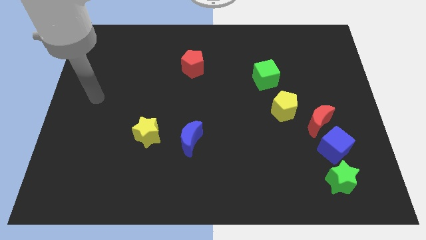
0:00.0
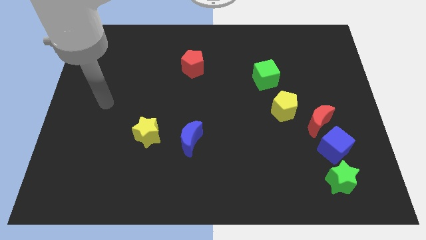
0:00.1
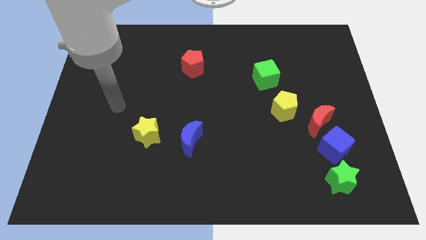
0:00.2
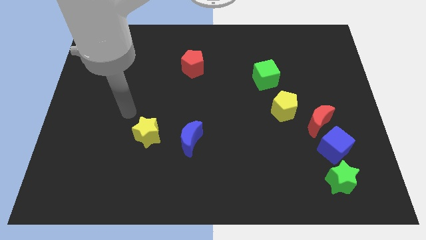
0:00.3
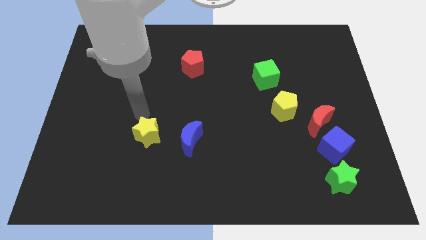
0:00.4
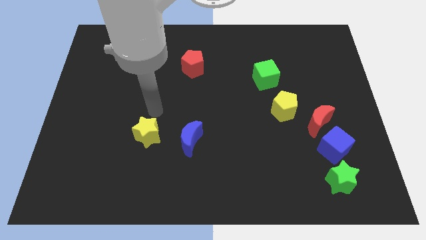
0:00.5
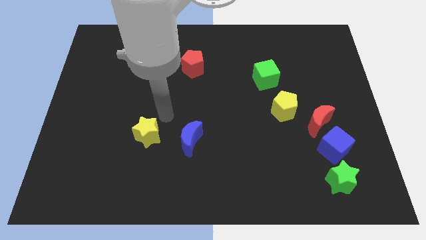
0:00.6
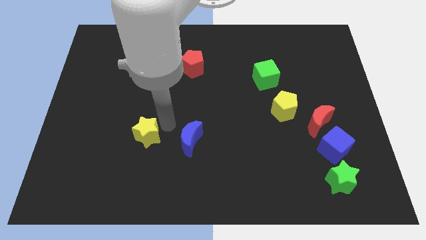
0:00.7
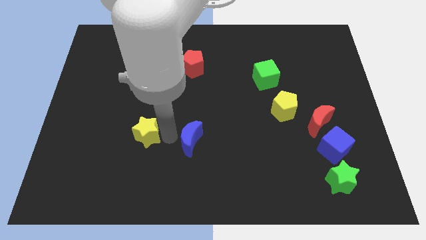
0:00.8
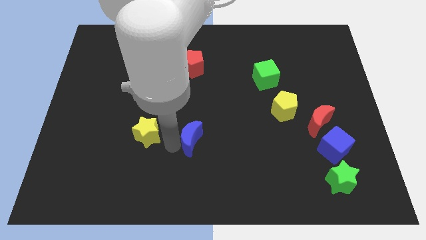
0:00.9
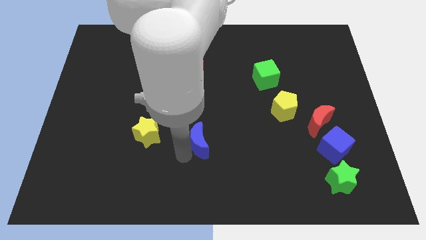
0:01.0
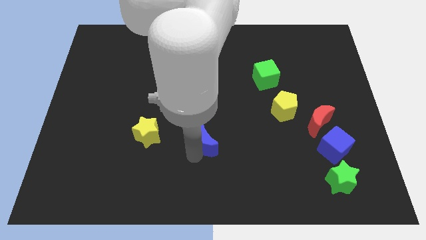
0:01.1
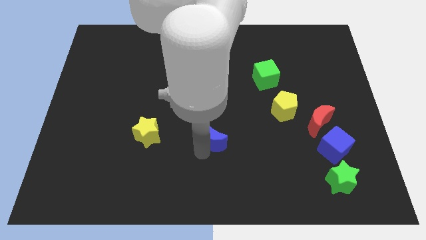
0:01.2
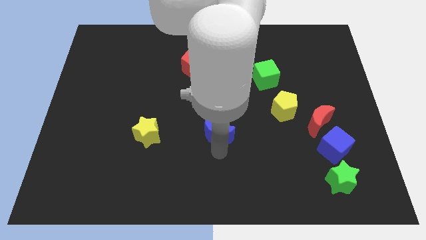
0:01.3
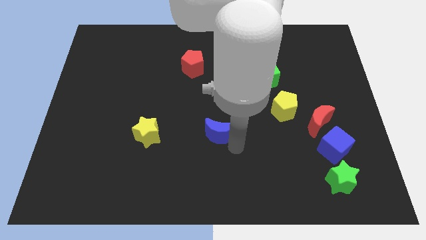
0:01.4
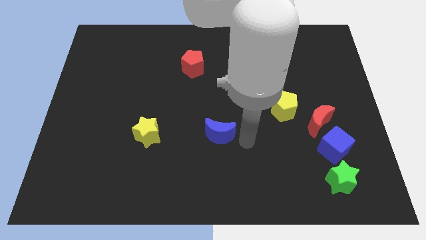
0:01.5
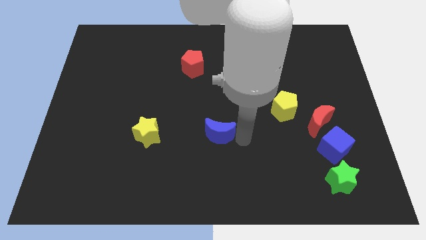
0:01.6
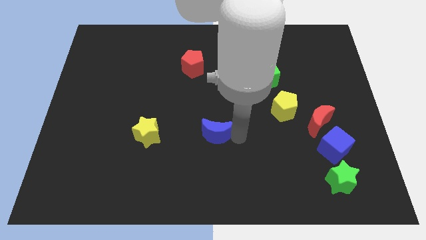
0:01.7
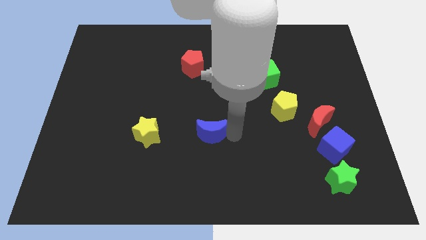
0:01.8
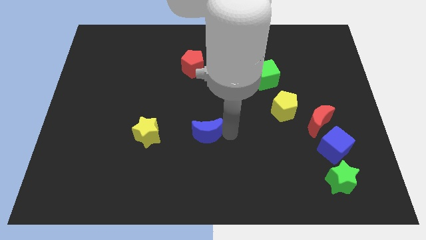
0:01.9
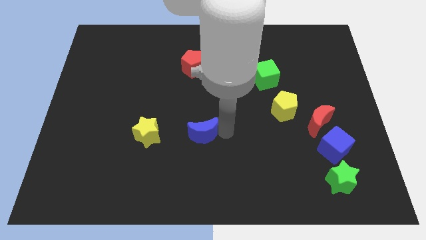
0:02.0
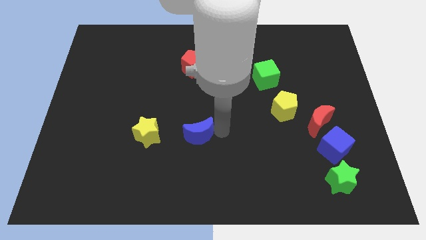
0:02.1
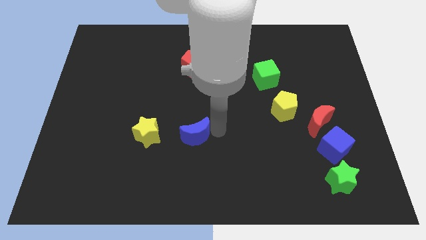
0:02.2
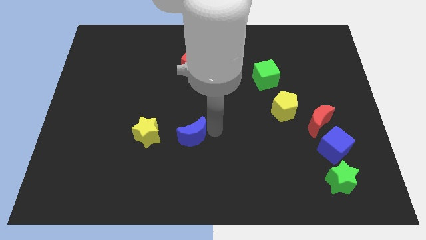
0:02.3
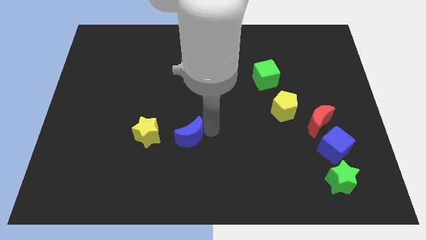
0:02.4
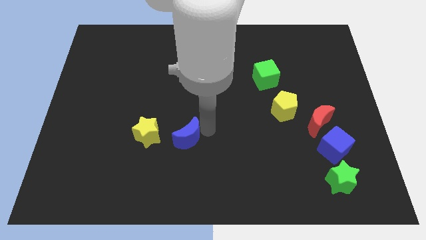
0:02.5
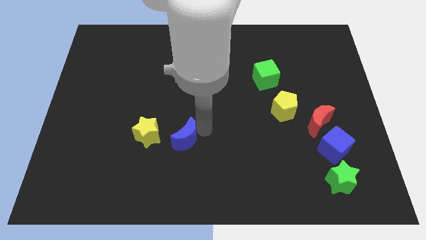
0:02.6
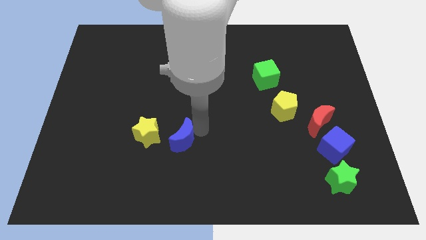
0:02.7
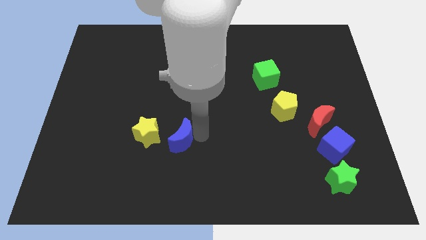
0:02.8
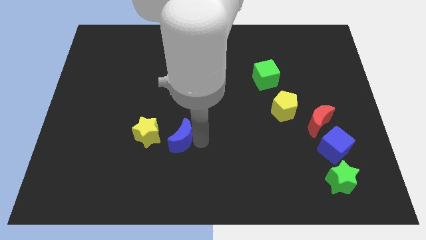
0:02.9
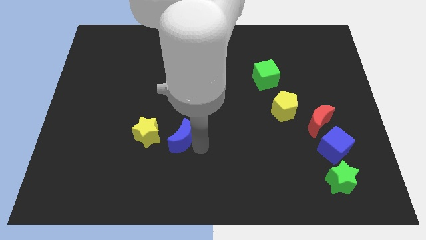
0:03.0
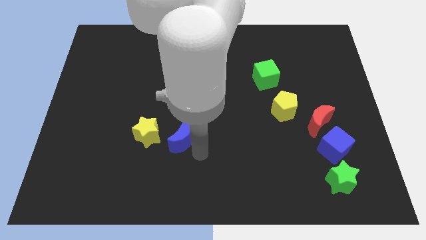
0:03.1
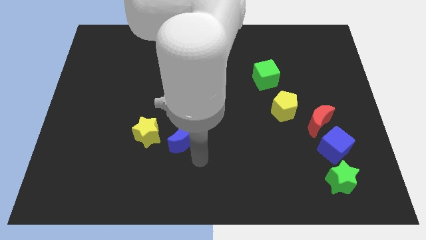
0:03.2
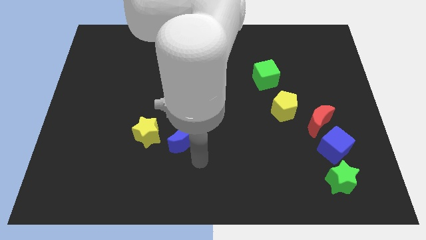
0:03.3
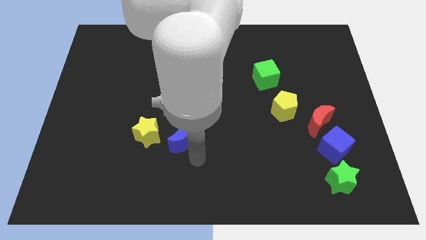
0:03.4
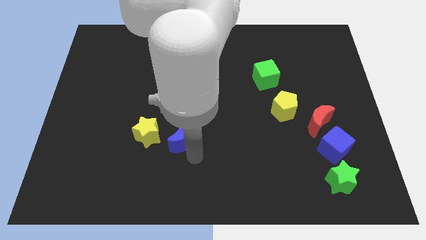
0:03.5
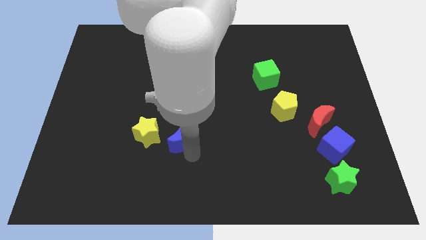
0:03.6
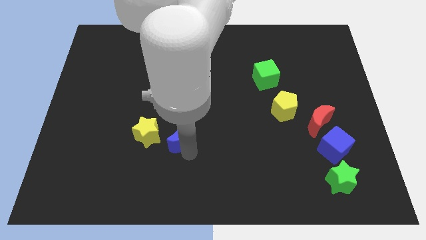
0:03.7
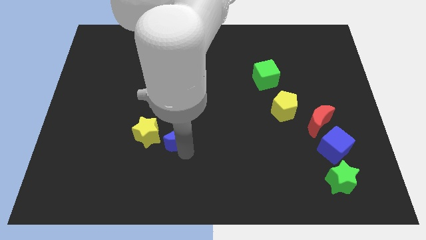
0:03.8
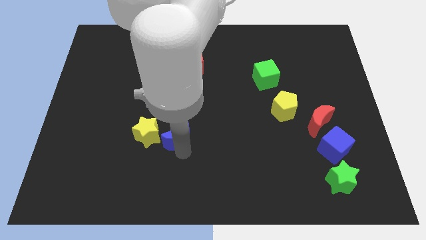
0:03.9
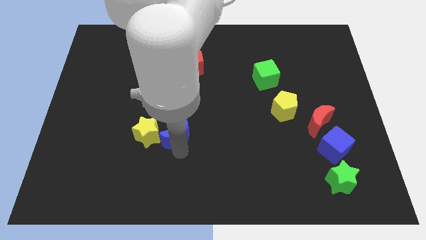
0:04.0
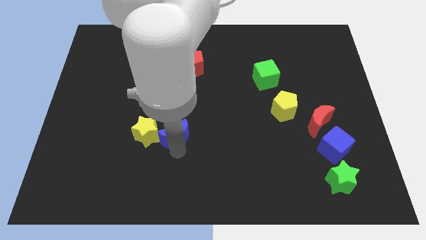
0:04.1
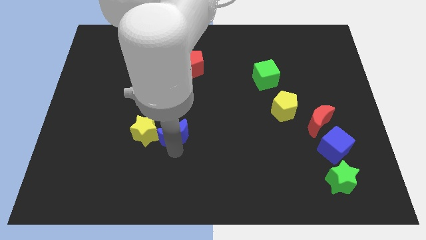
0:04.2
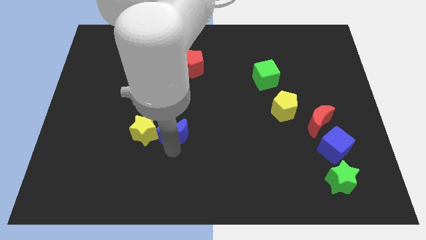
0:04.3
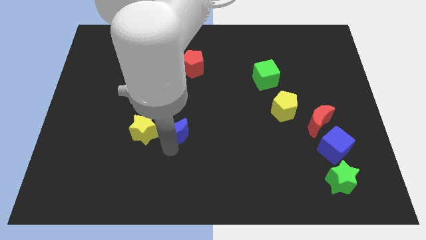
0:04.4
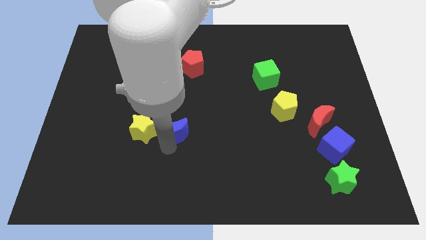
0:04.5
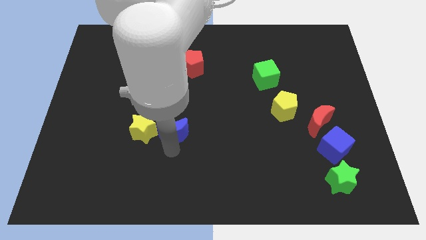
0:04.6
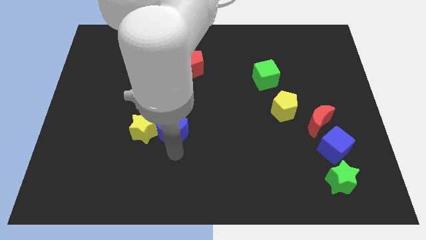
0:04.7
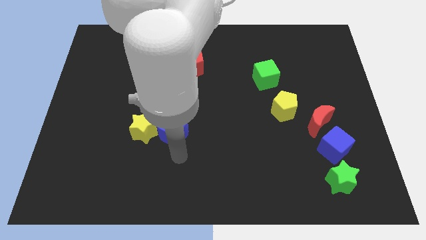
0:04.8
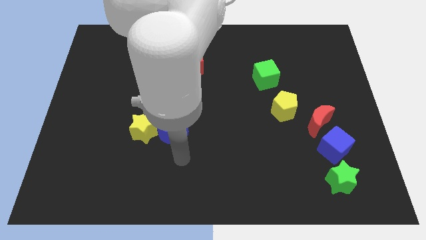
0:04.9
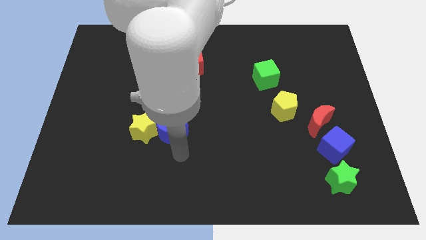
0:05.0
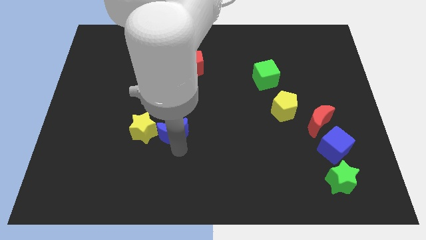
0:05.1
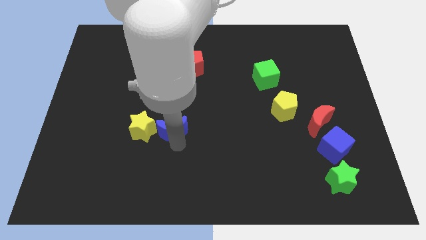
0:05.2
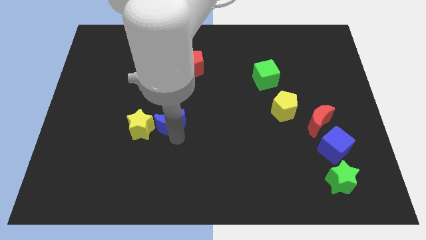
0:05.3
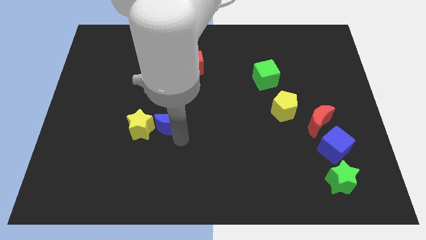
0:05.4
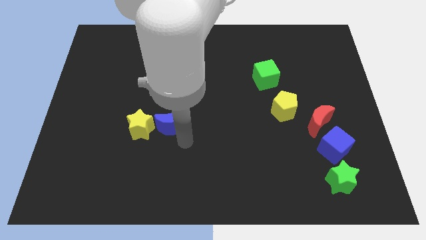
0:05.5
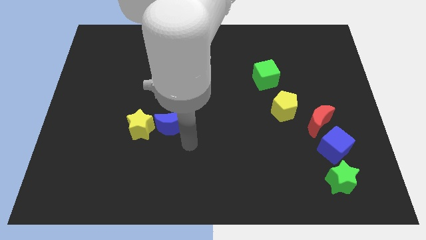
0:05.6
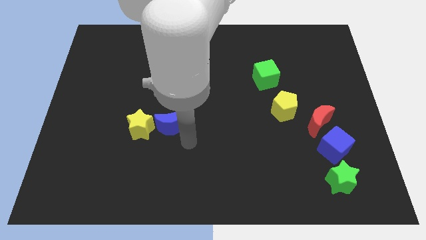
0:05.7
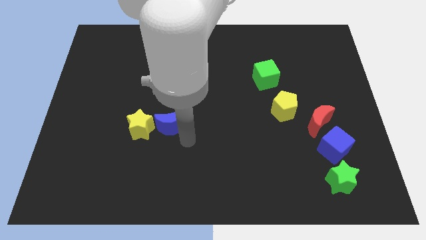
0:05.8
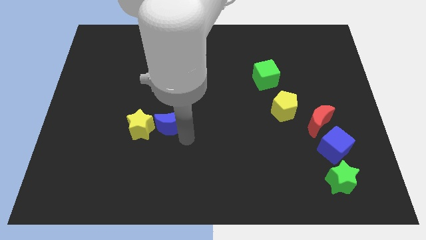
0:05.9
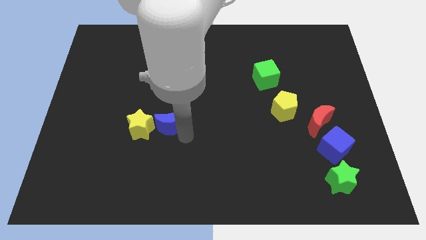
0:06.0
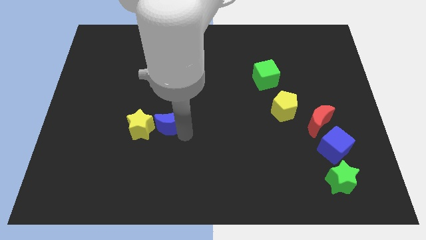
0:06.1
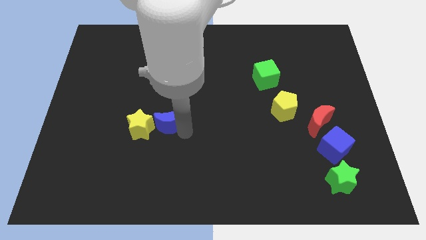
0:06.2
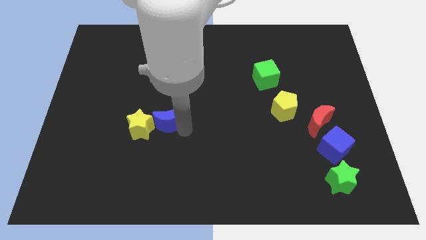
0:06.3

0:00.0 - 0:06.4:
slightly push the blue moon diagonally upwards and left

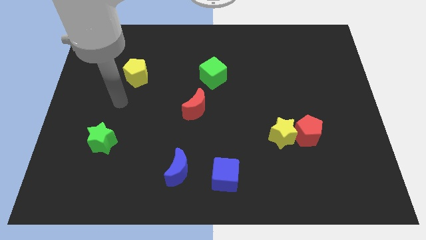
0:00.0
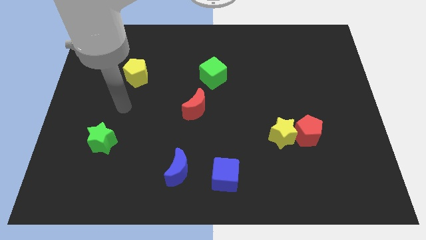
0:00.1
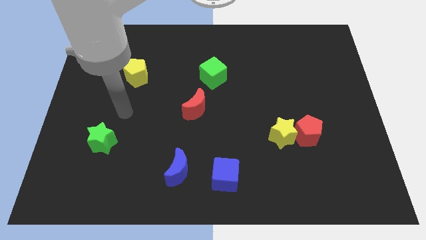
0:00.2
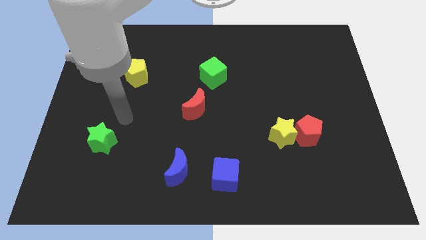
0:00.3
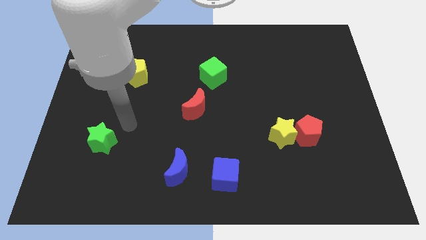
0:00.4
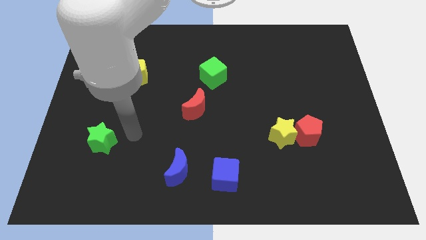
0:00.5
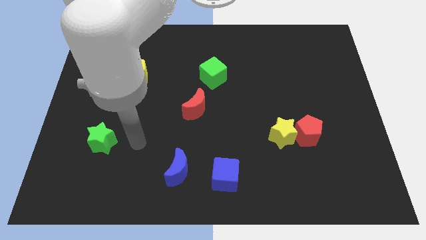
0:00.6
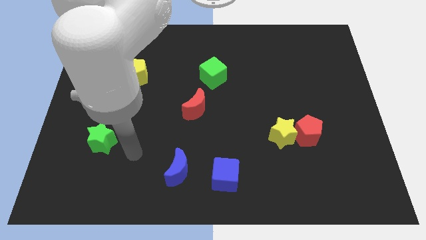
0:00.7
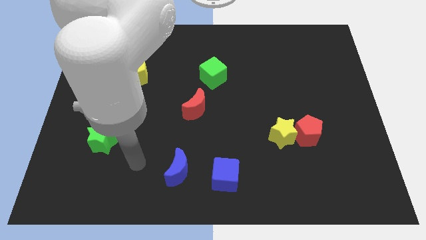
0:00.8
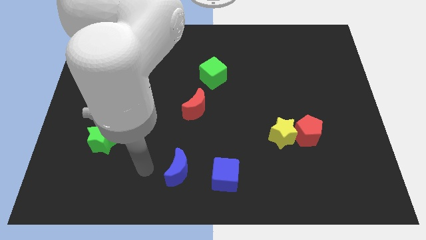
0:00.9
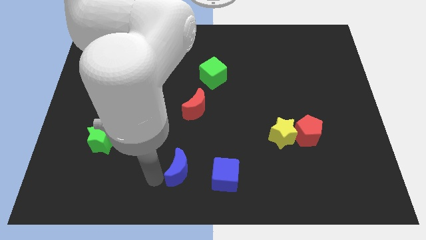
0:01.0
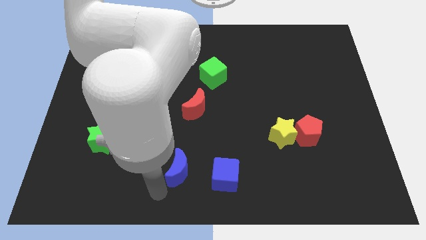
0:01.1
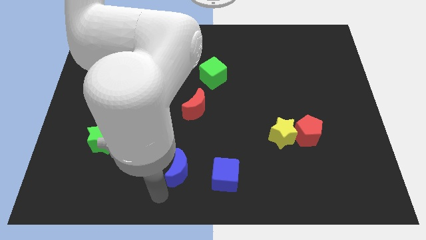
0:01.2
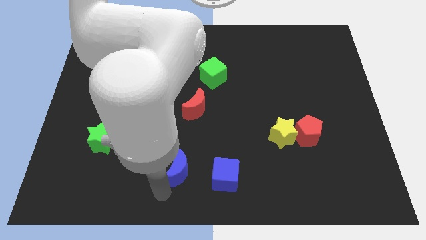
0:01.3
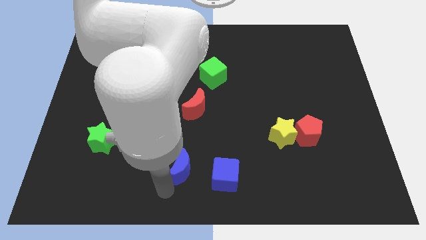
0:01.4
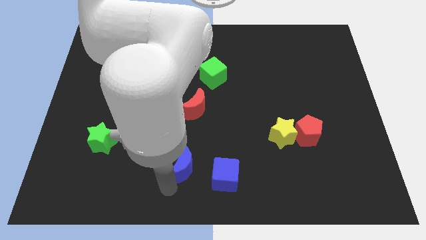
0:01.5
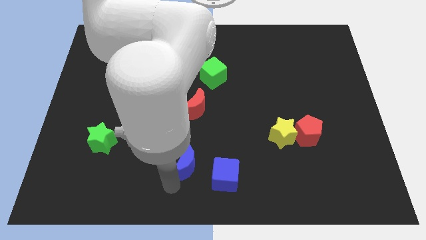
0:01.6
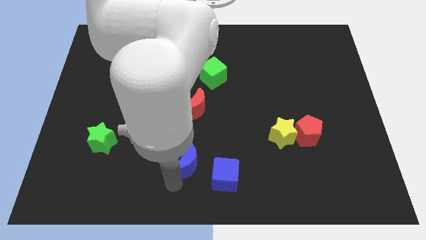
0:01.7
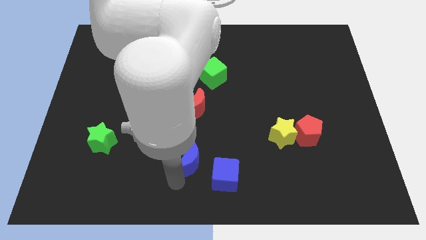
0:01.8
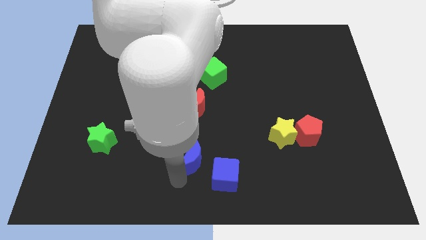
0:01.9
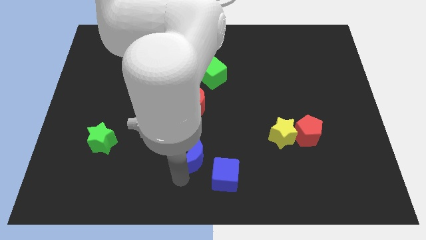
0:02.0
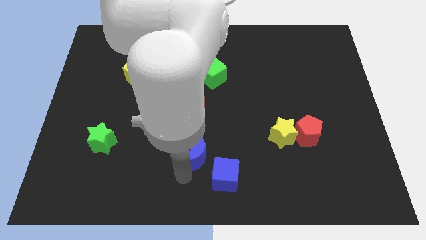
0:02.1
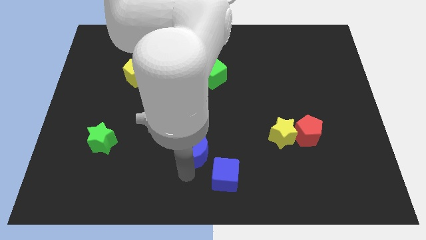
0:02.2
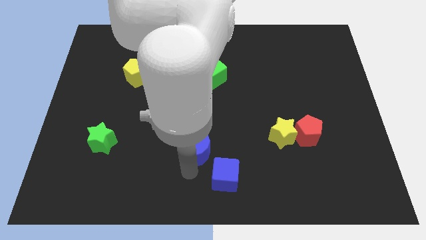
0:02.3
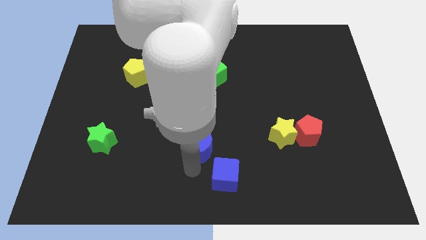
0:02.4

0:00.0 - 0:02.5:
push the blue moon slightly up and right
